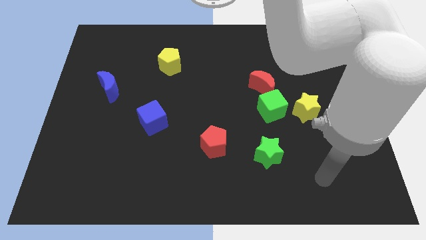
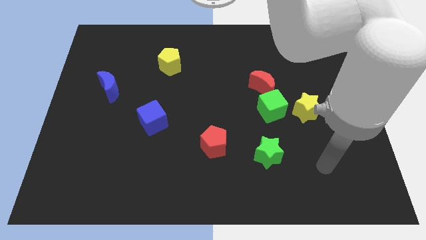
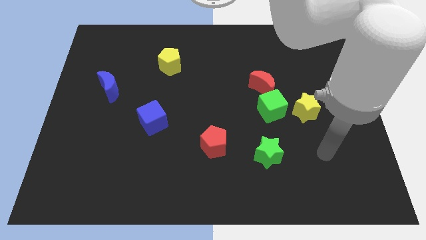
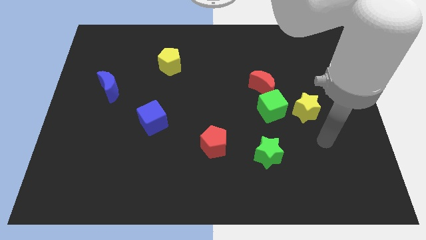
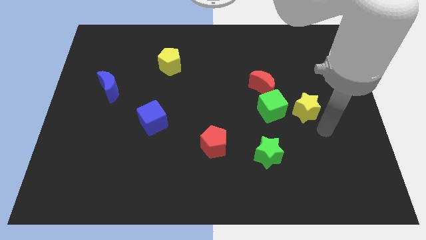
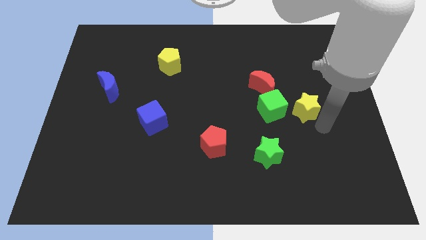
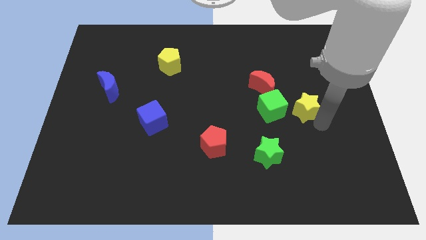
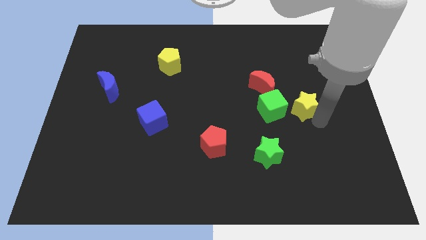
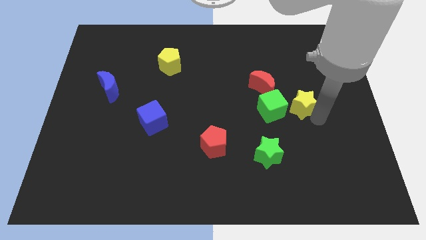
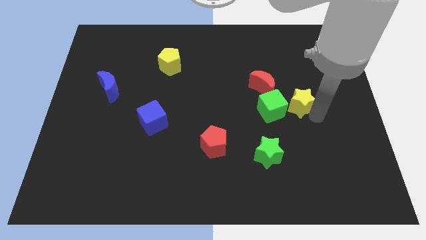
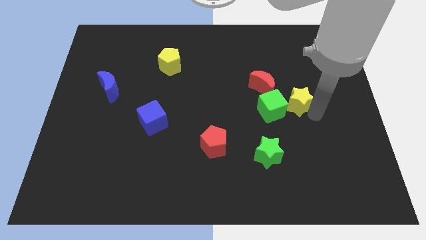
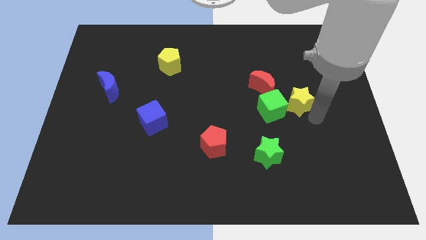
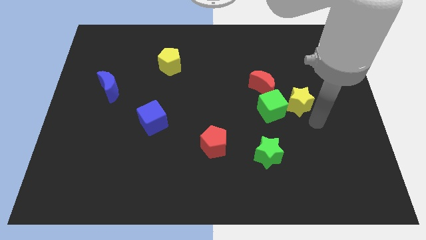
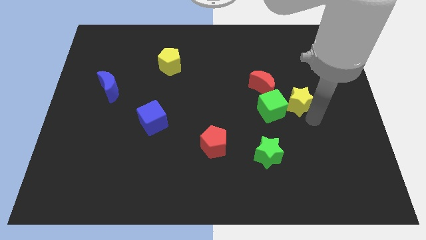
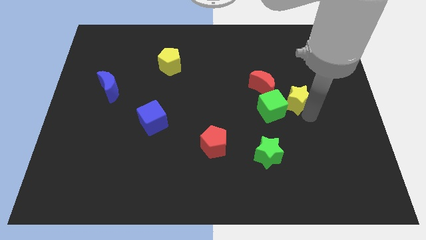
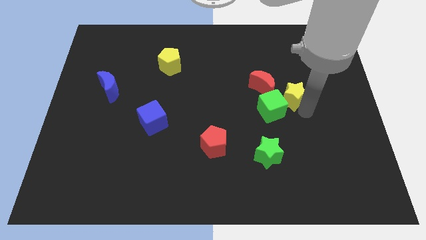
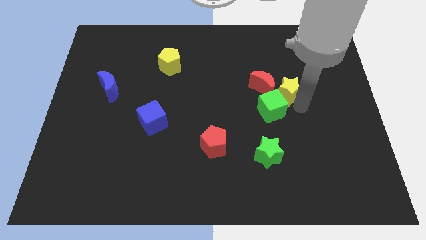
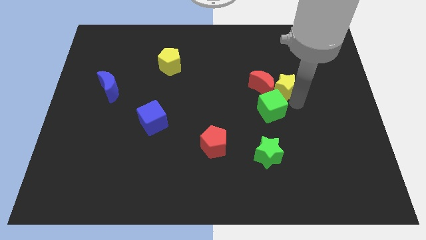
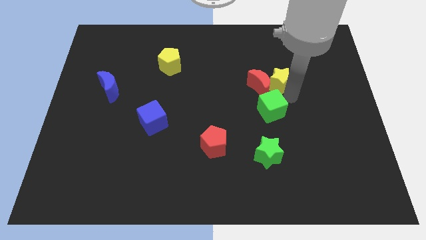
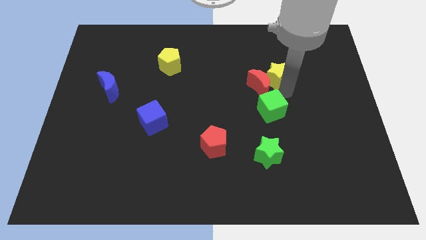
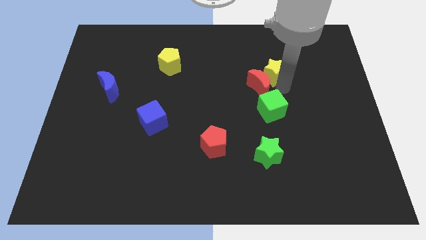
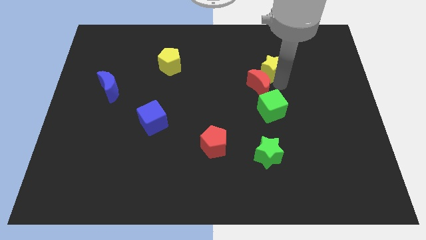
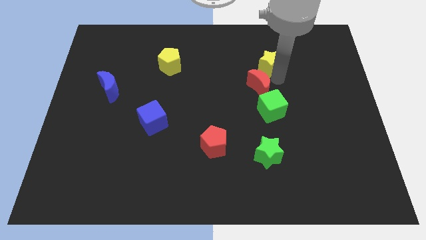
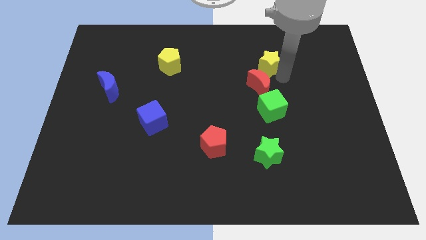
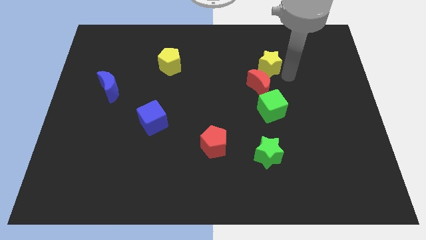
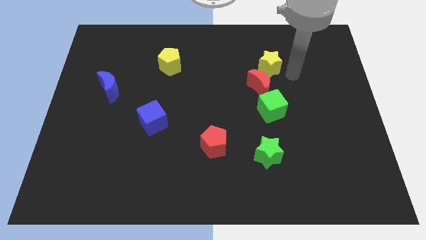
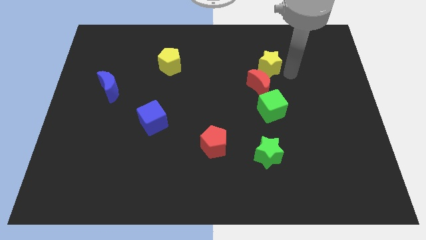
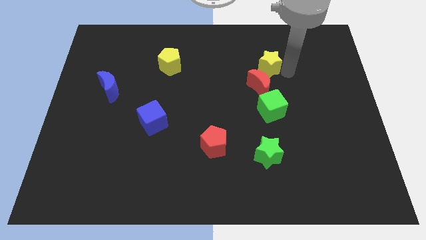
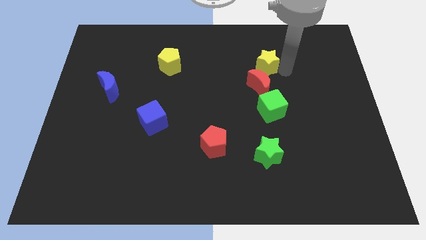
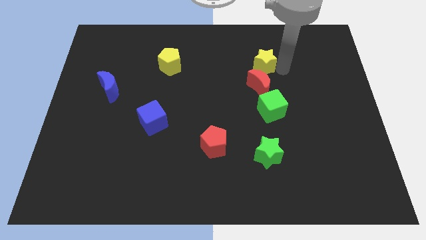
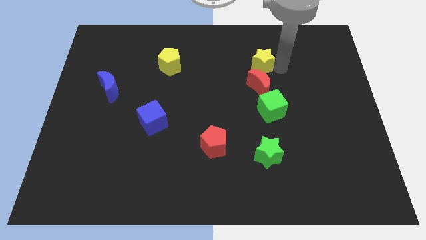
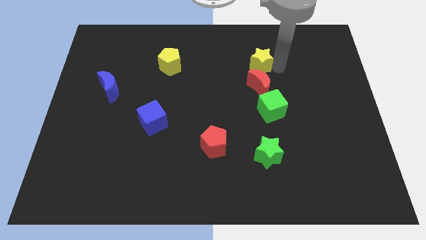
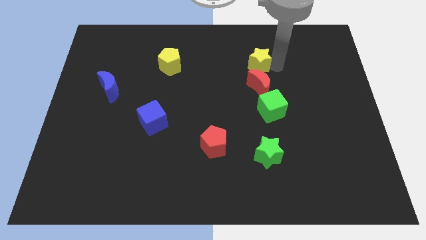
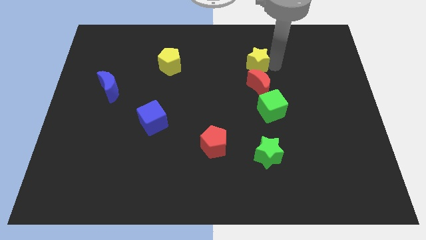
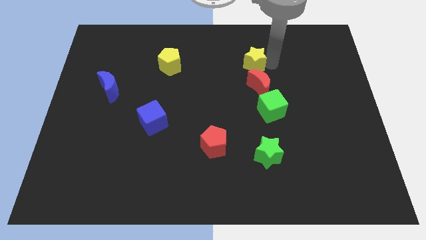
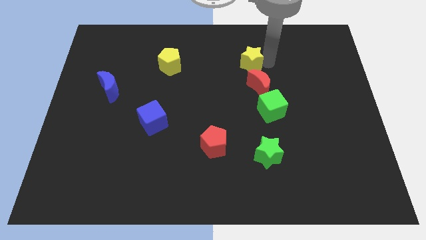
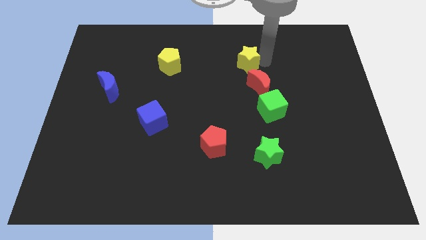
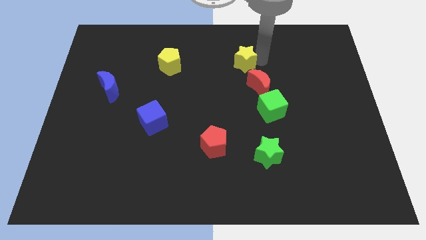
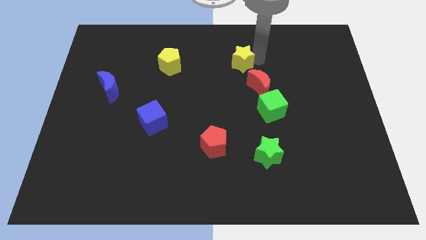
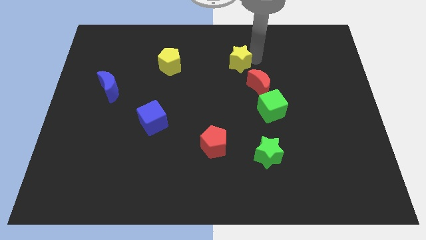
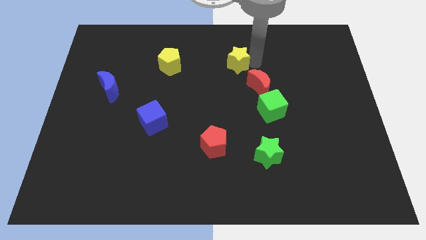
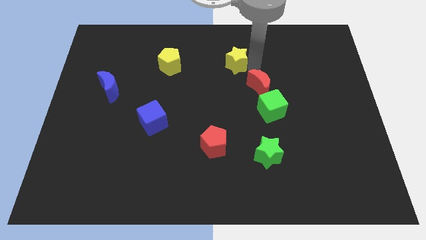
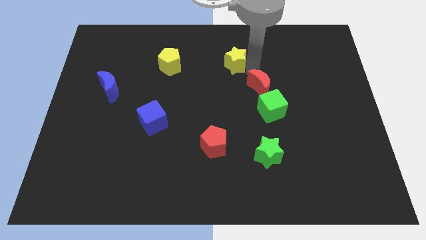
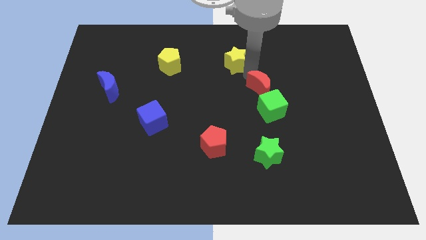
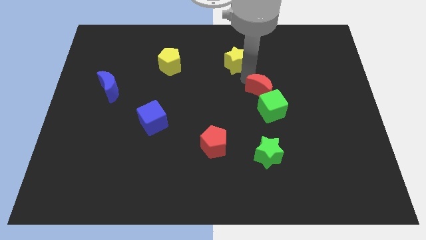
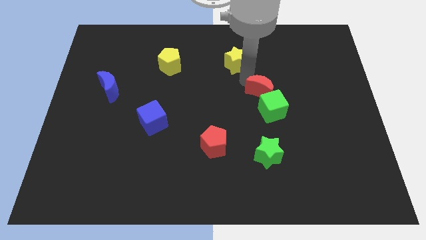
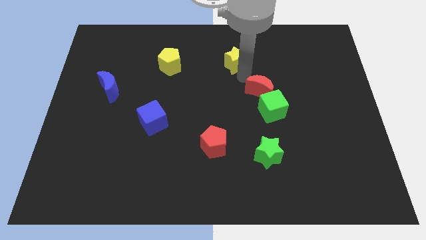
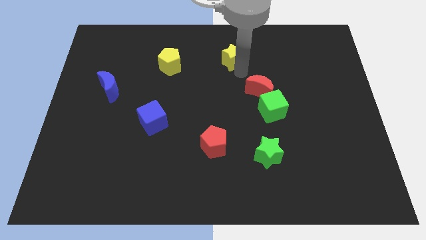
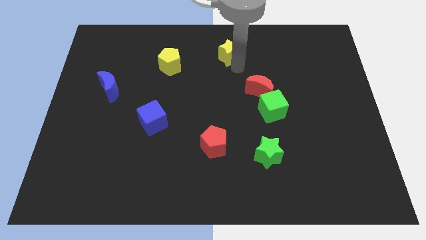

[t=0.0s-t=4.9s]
put the yellow star to the top side

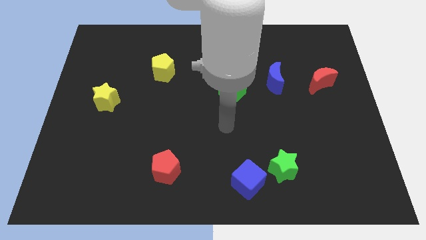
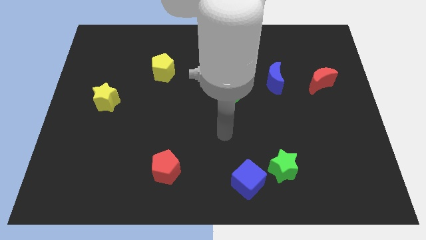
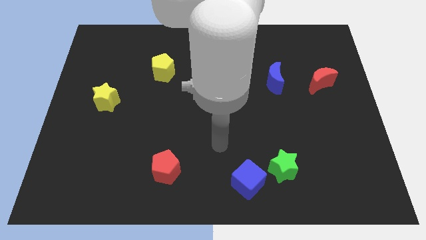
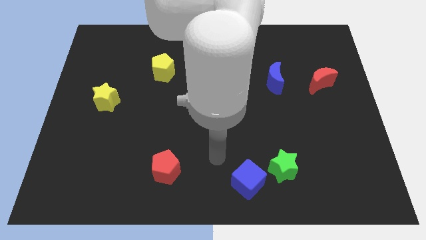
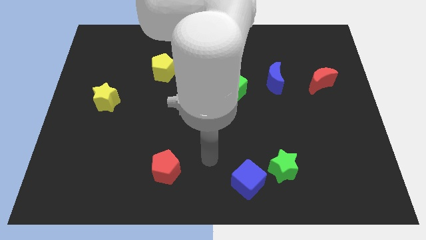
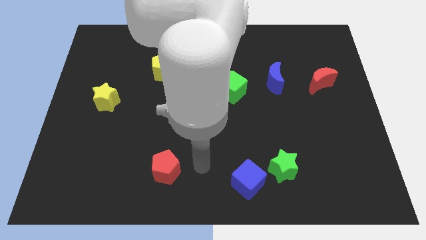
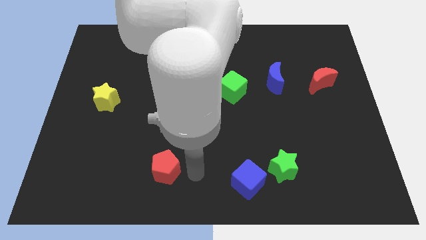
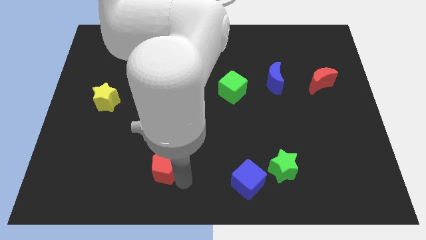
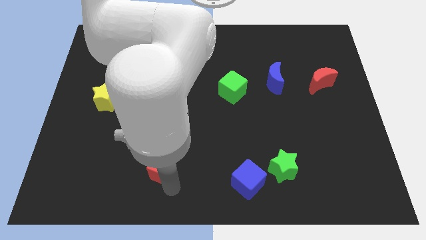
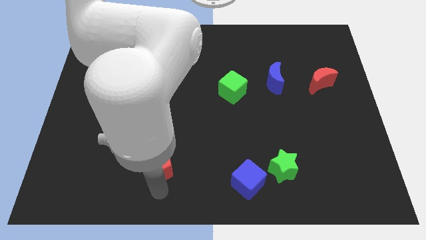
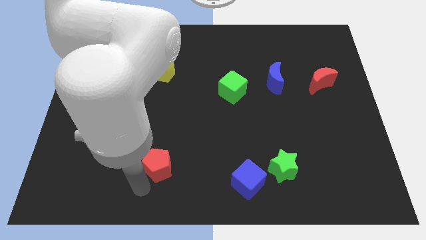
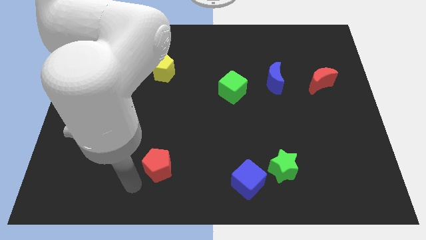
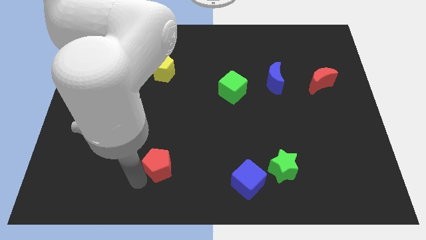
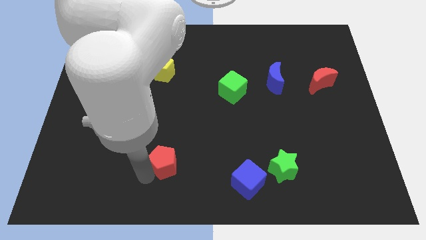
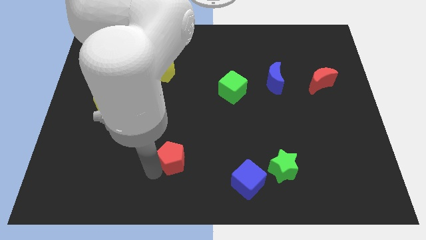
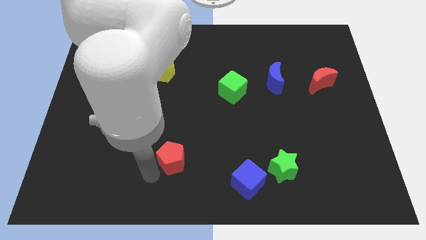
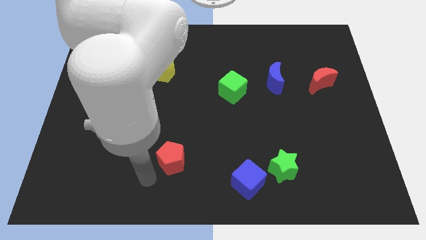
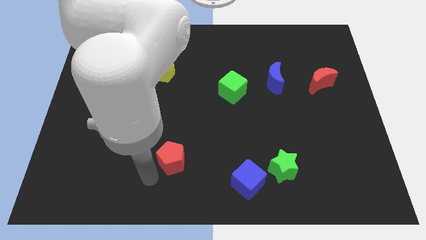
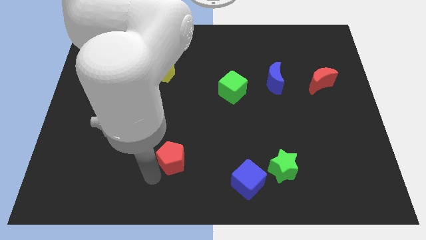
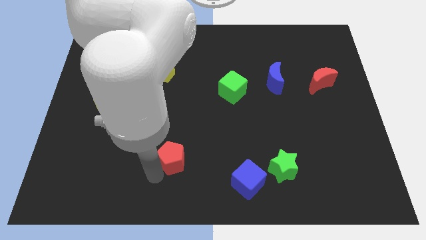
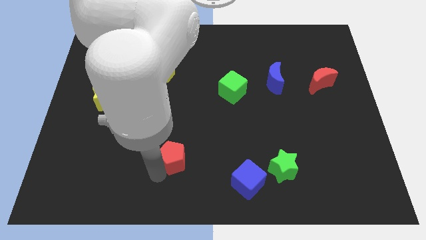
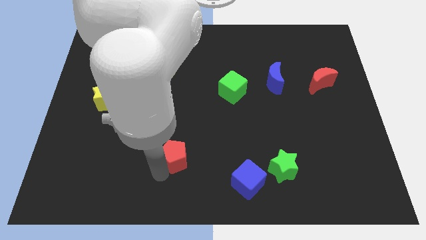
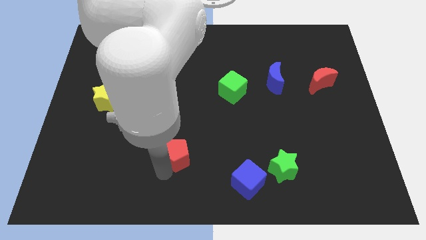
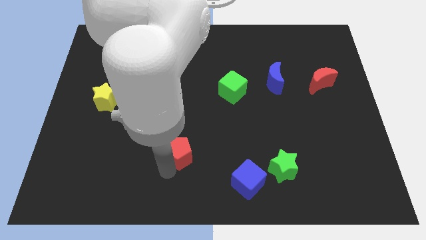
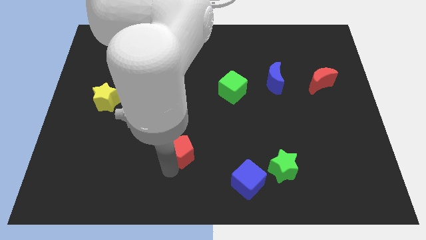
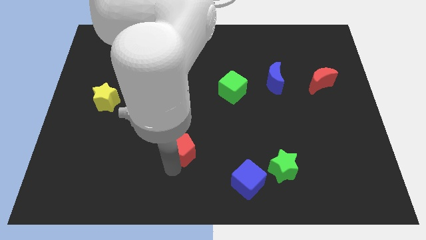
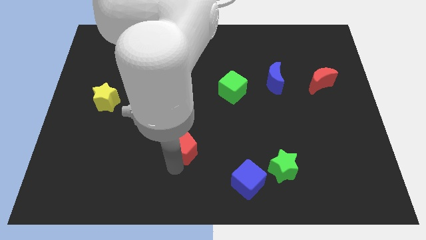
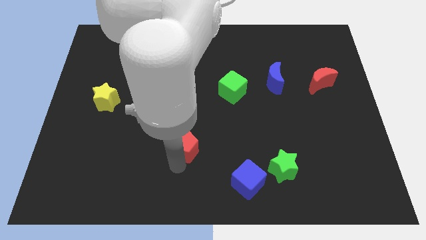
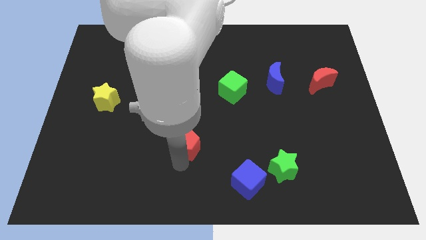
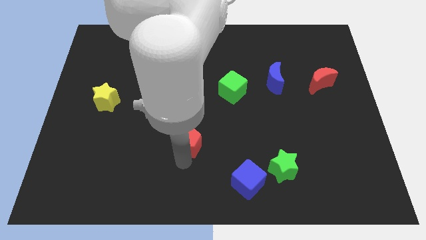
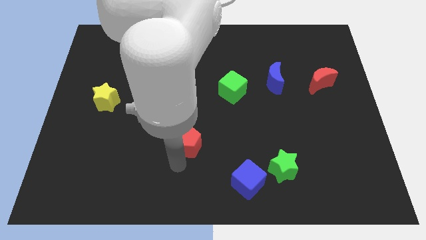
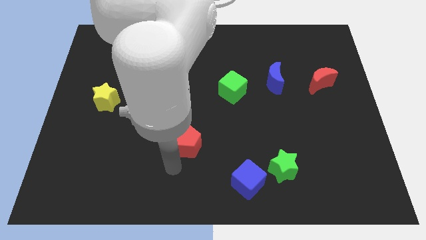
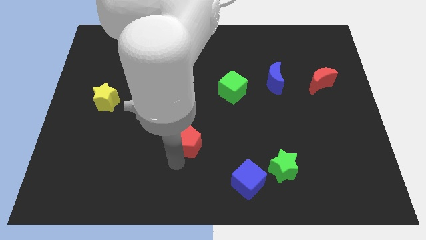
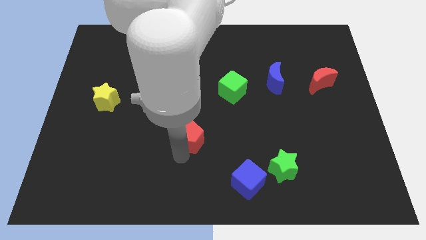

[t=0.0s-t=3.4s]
slide the red pentagon to the center of the board
